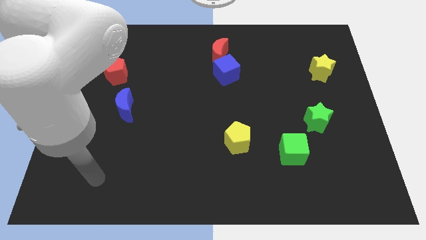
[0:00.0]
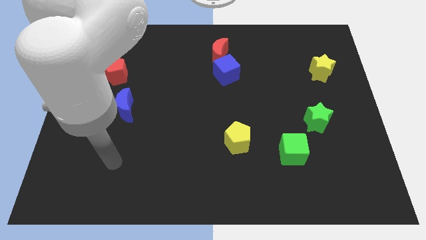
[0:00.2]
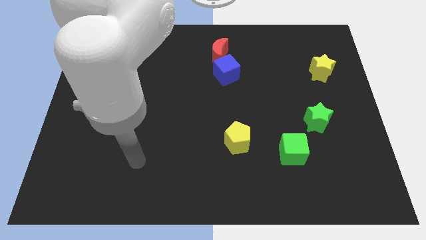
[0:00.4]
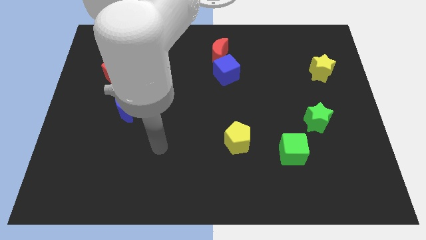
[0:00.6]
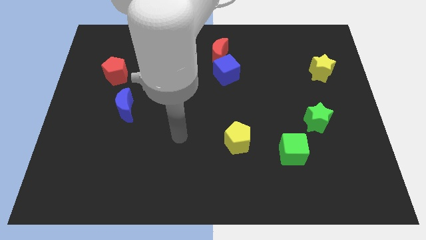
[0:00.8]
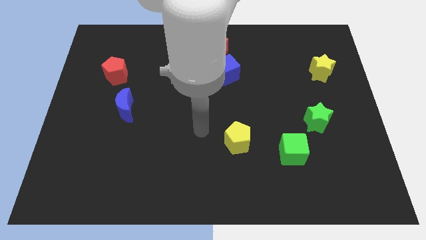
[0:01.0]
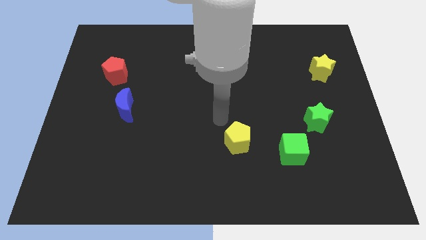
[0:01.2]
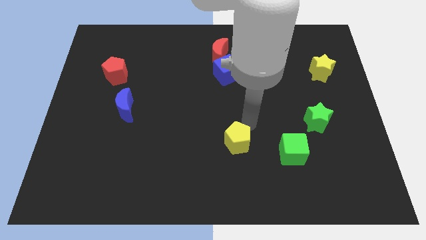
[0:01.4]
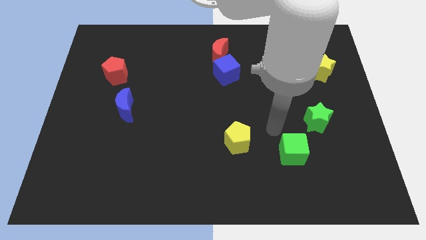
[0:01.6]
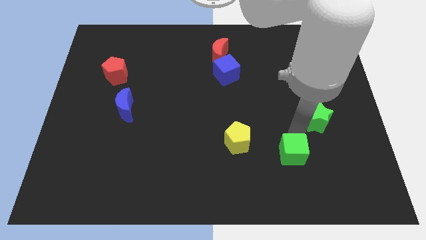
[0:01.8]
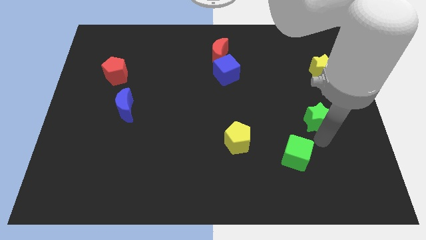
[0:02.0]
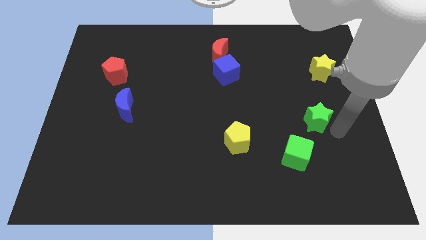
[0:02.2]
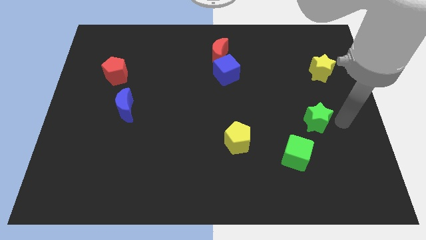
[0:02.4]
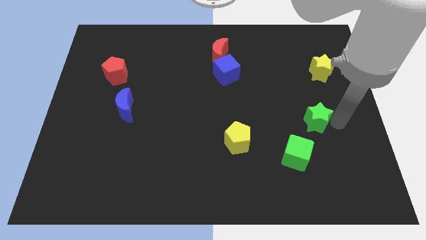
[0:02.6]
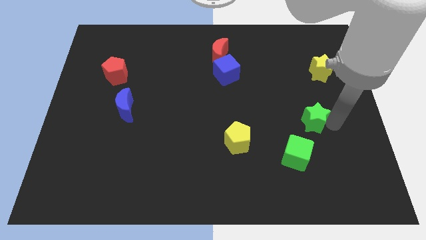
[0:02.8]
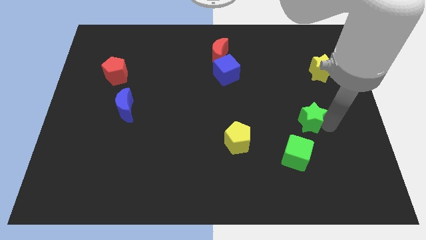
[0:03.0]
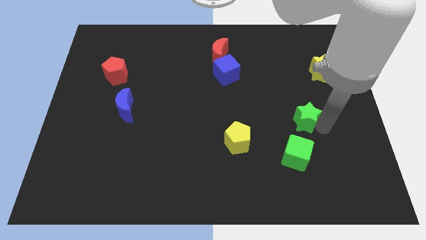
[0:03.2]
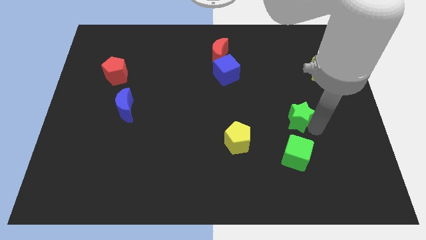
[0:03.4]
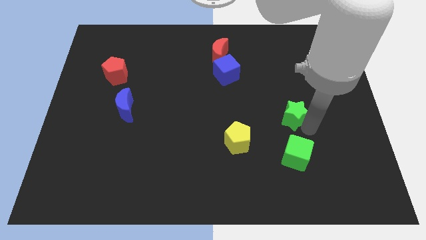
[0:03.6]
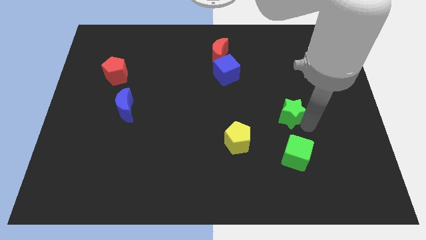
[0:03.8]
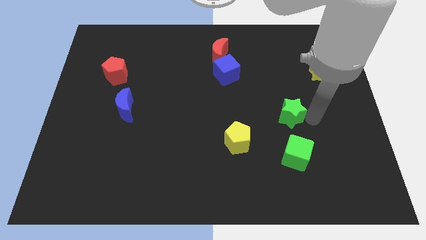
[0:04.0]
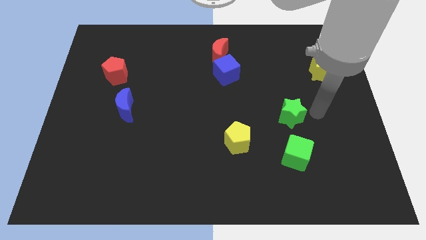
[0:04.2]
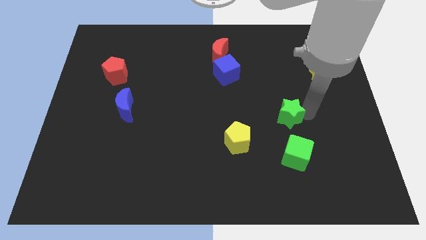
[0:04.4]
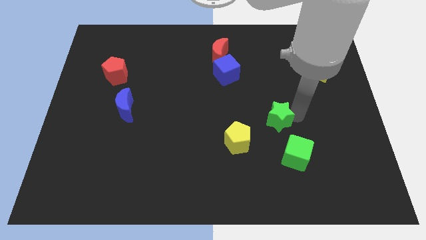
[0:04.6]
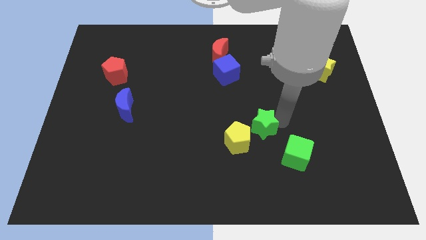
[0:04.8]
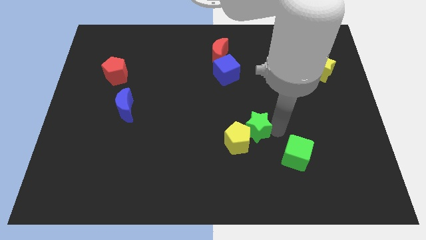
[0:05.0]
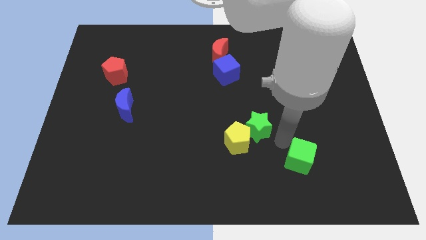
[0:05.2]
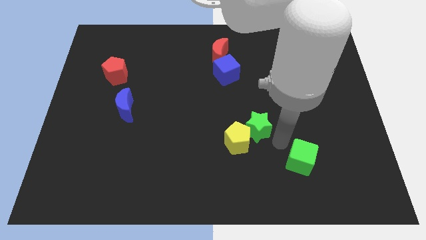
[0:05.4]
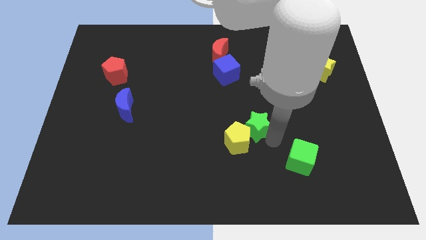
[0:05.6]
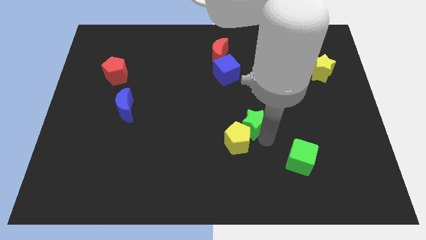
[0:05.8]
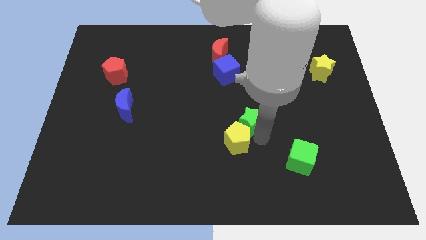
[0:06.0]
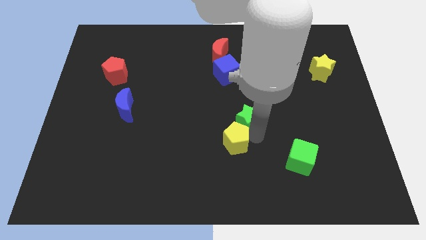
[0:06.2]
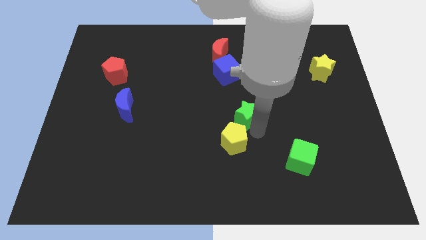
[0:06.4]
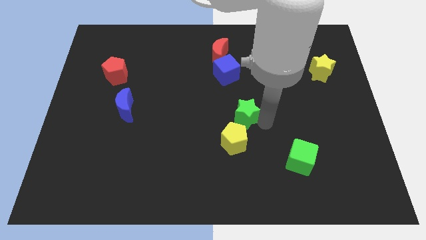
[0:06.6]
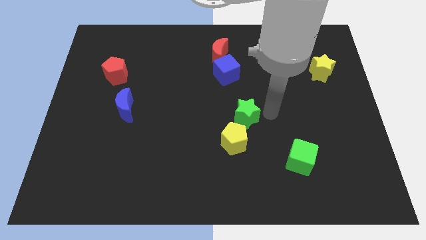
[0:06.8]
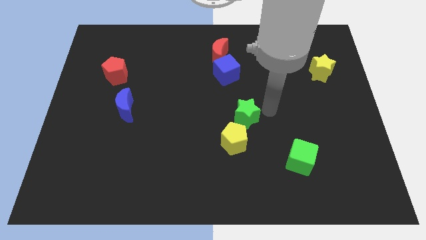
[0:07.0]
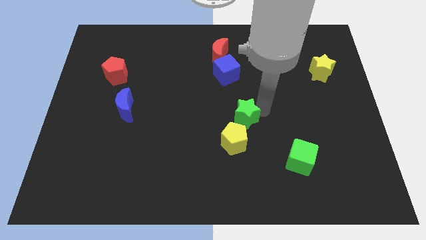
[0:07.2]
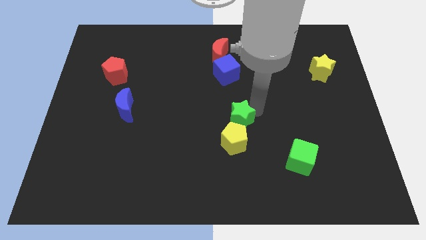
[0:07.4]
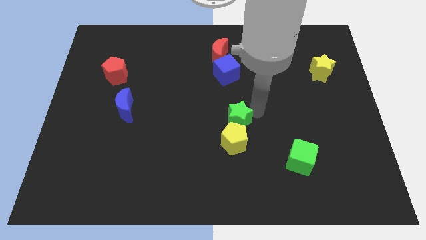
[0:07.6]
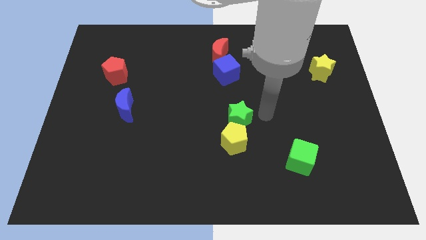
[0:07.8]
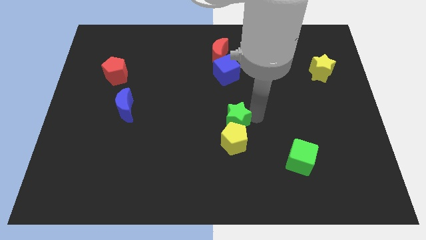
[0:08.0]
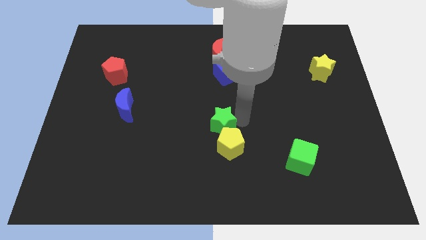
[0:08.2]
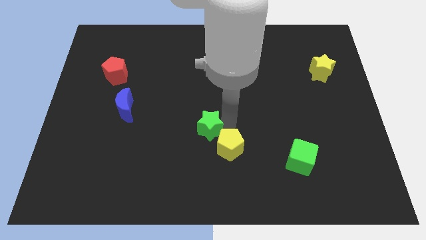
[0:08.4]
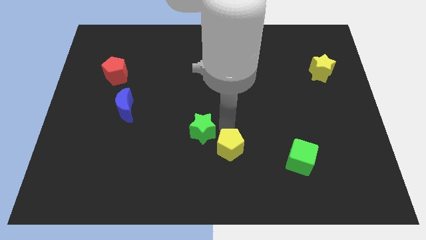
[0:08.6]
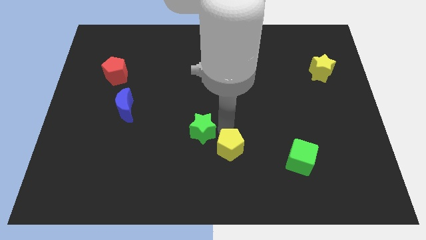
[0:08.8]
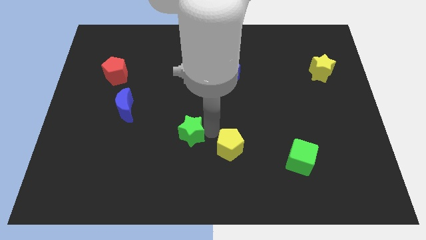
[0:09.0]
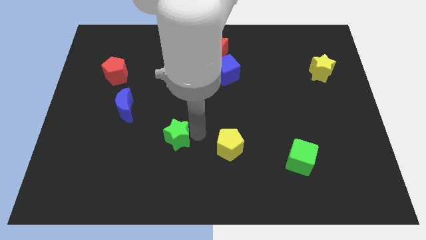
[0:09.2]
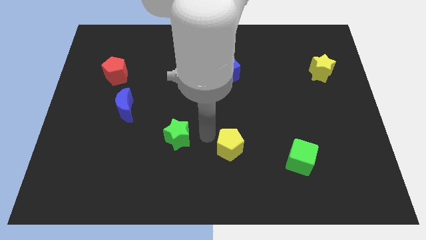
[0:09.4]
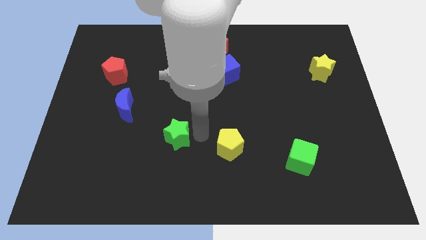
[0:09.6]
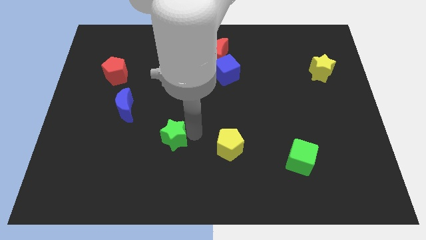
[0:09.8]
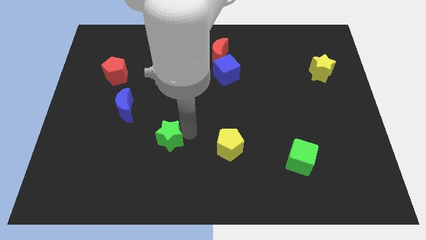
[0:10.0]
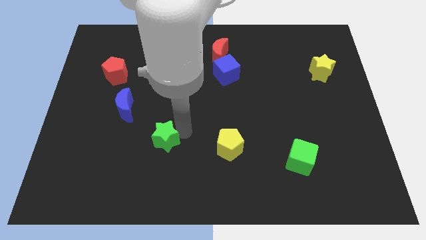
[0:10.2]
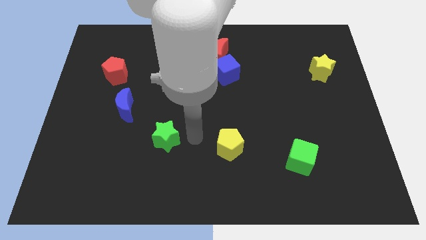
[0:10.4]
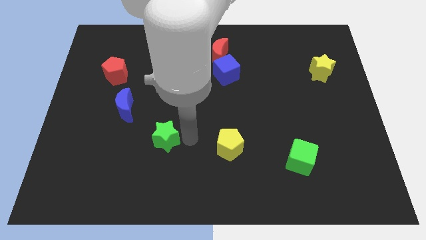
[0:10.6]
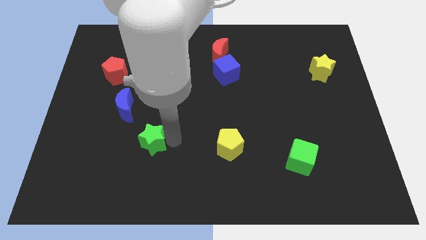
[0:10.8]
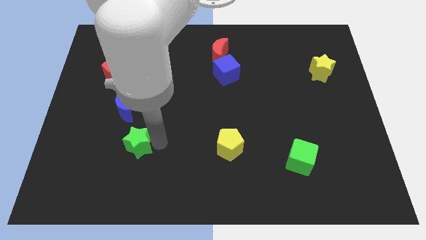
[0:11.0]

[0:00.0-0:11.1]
move the green star below the blue moon

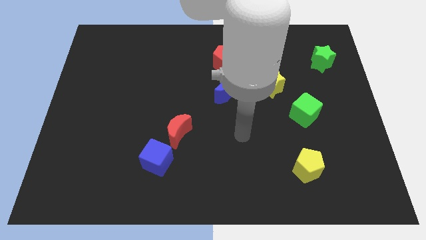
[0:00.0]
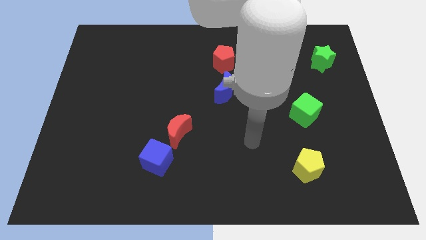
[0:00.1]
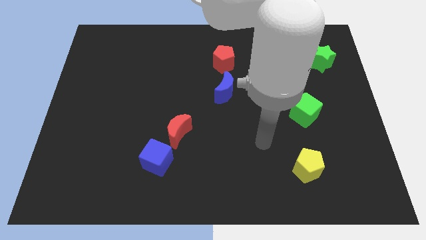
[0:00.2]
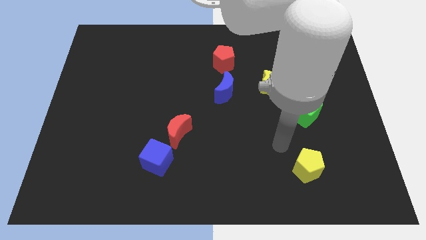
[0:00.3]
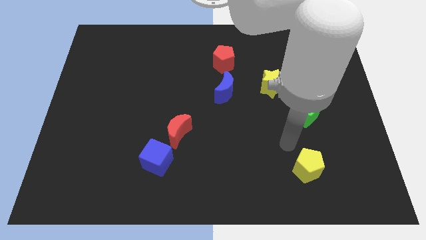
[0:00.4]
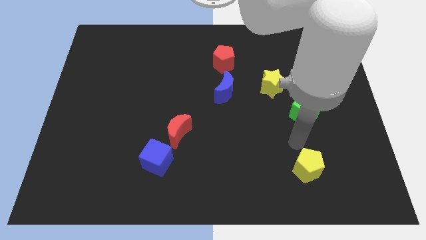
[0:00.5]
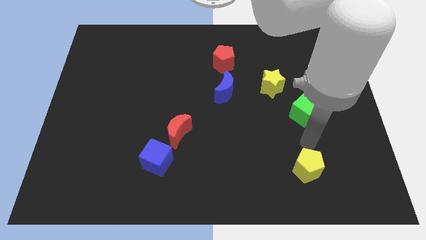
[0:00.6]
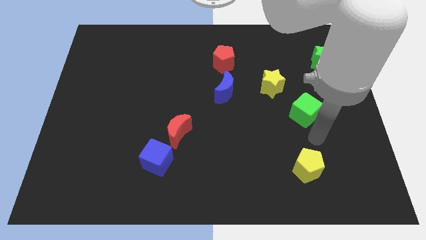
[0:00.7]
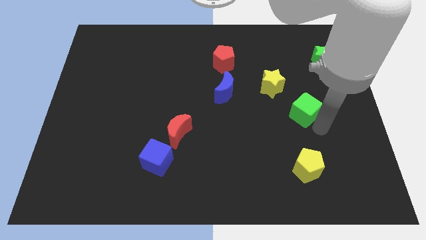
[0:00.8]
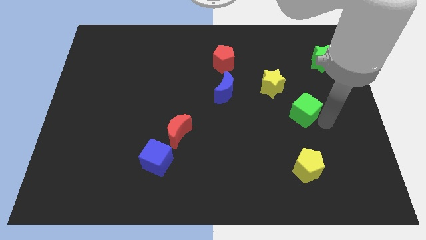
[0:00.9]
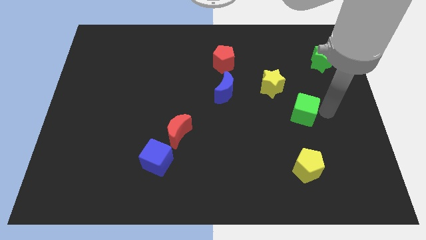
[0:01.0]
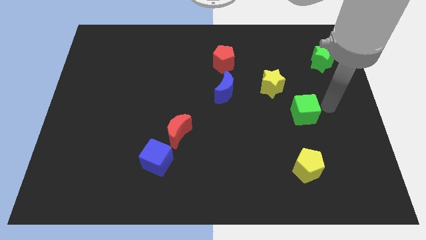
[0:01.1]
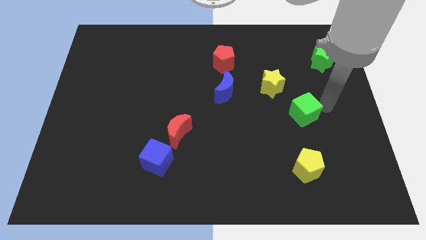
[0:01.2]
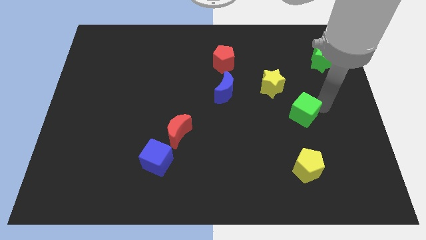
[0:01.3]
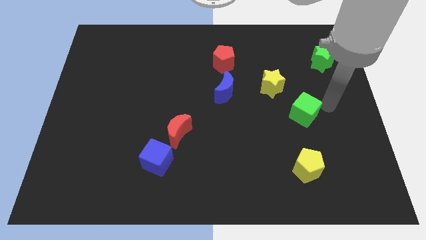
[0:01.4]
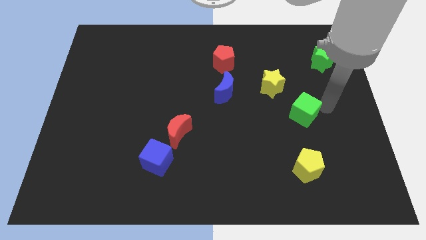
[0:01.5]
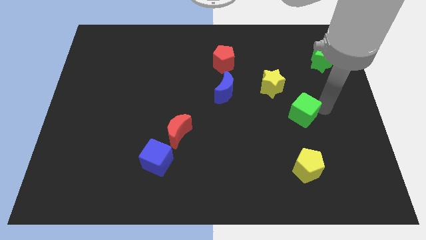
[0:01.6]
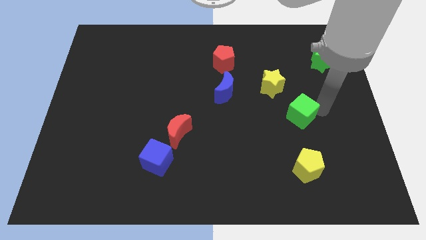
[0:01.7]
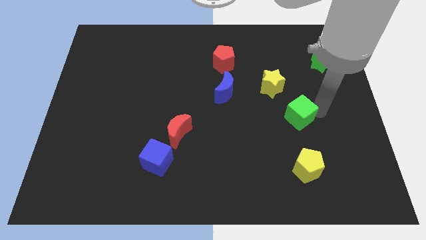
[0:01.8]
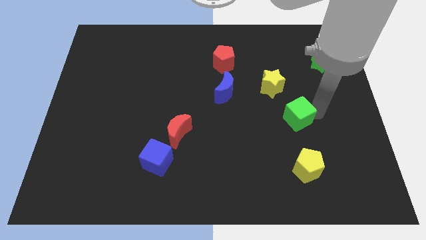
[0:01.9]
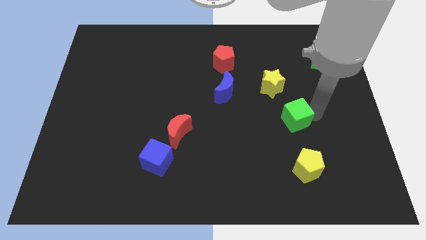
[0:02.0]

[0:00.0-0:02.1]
slide the green cube to the bottom side of the yellow star

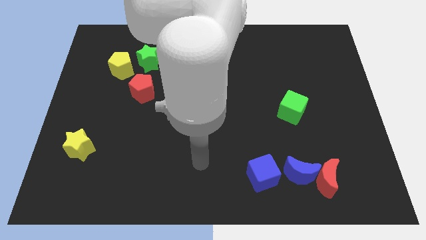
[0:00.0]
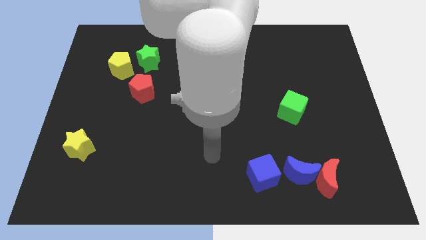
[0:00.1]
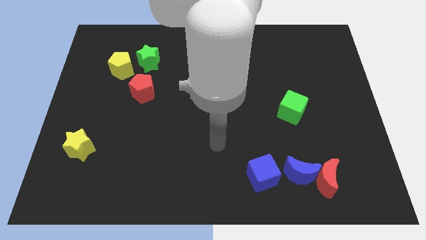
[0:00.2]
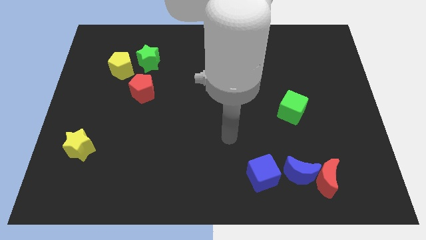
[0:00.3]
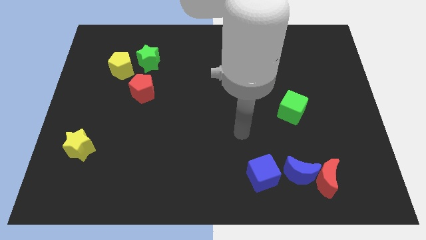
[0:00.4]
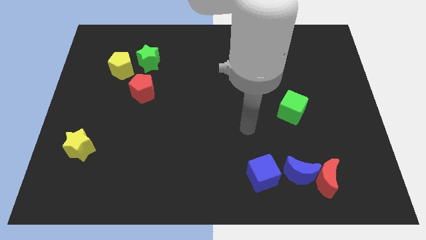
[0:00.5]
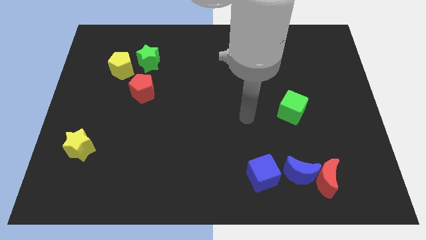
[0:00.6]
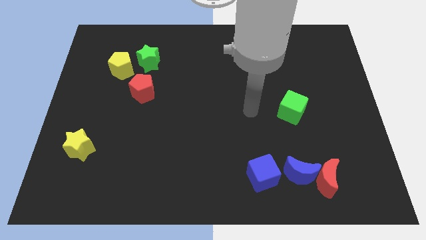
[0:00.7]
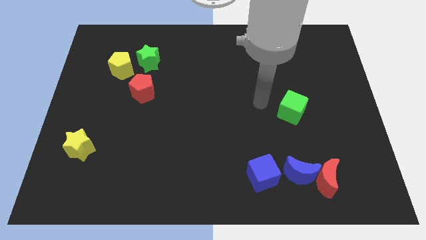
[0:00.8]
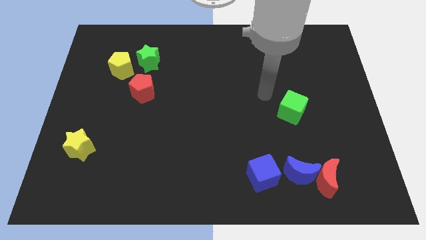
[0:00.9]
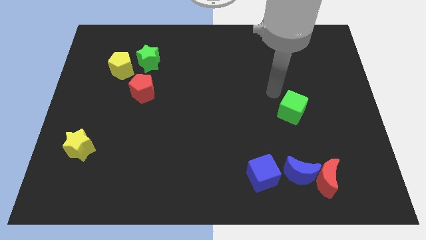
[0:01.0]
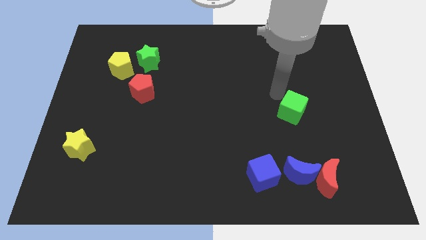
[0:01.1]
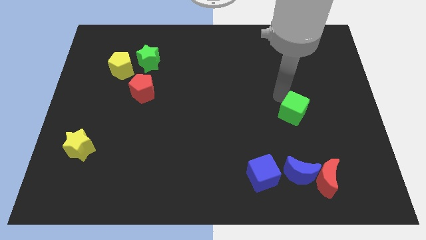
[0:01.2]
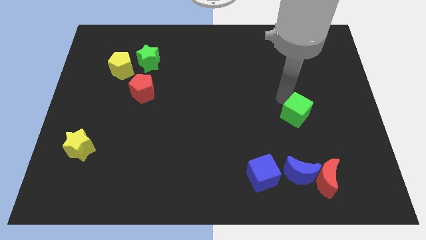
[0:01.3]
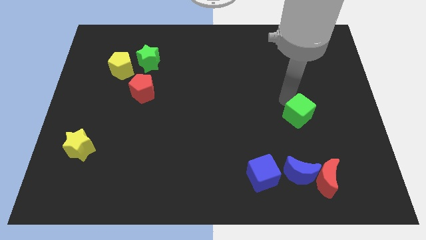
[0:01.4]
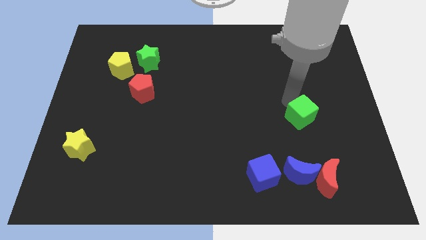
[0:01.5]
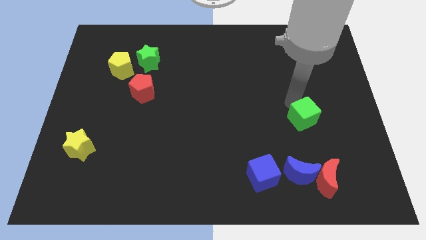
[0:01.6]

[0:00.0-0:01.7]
slide the green cube above the red moon
